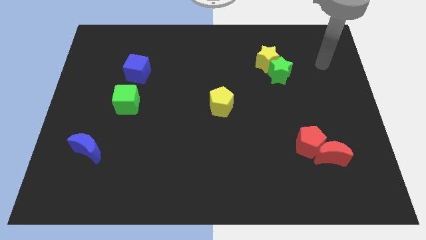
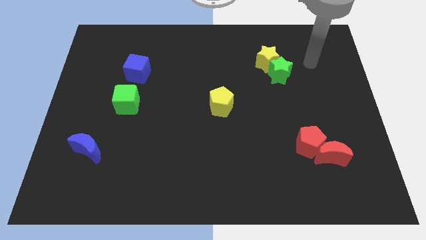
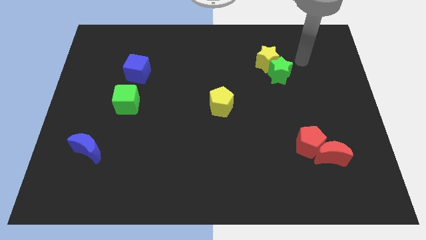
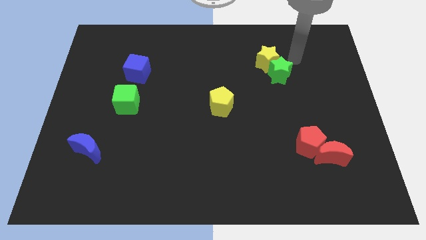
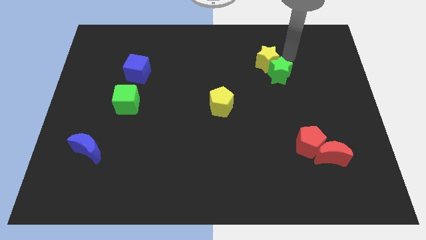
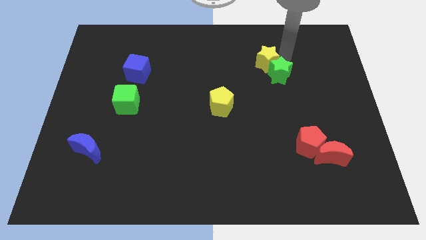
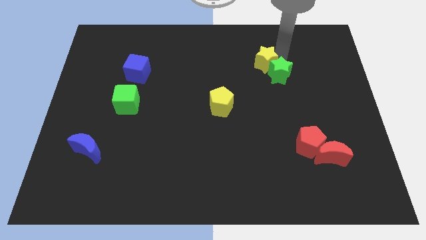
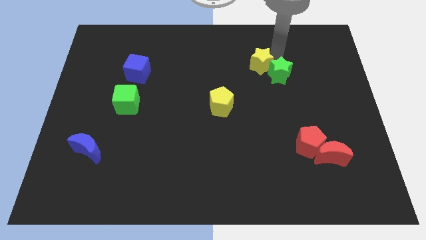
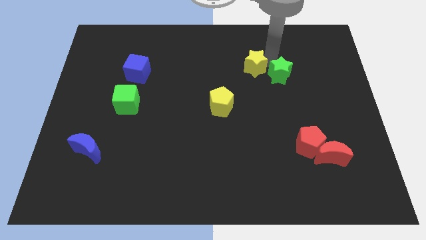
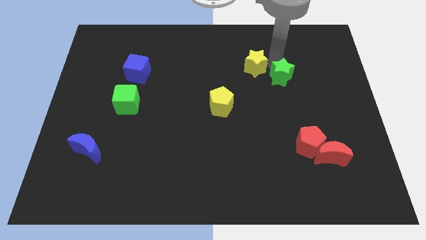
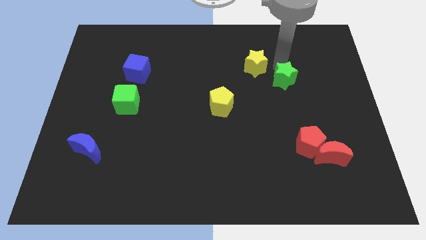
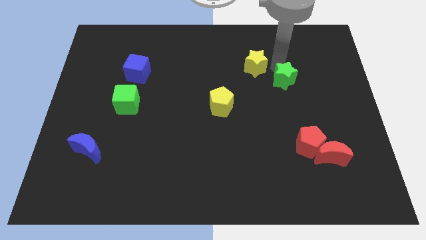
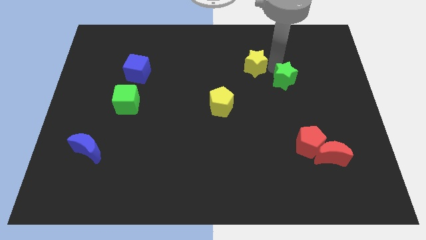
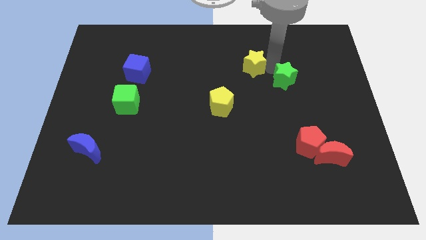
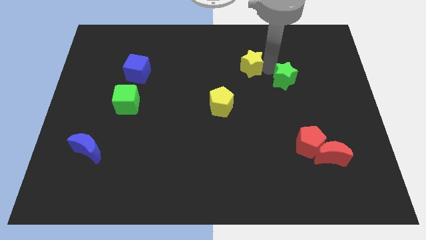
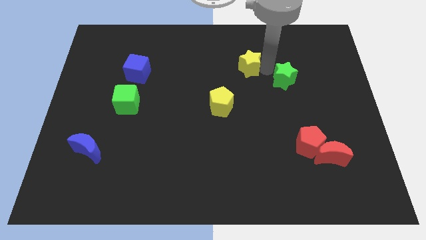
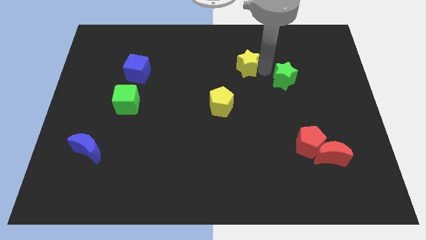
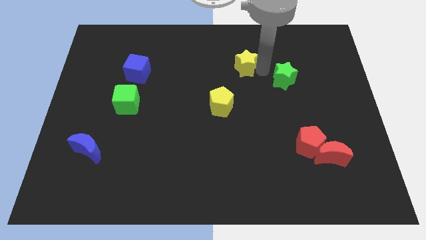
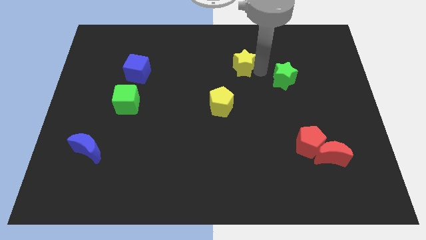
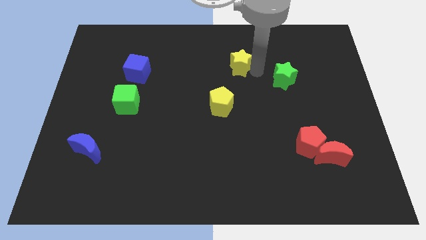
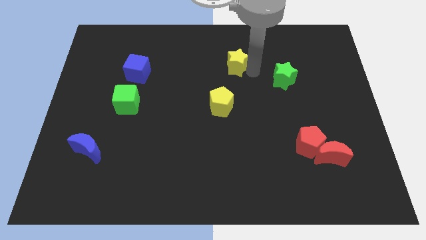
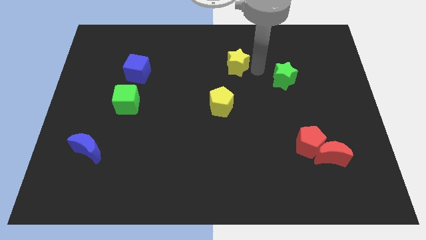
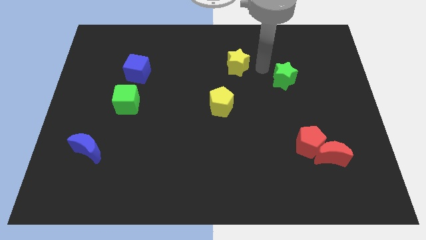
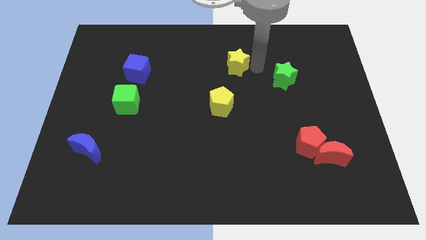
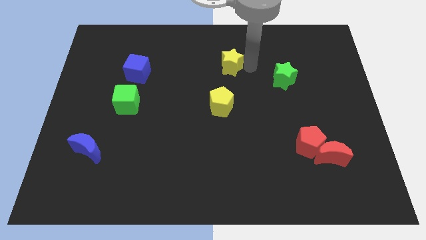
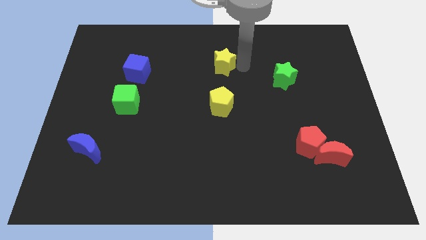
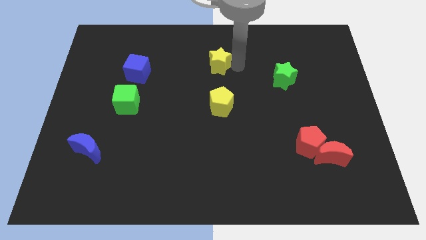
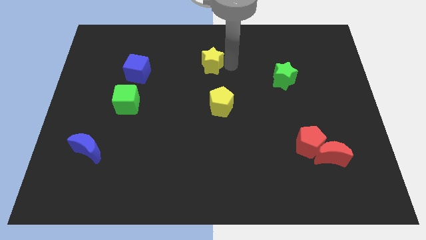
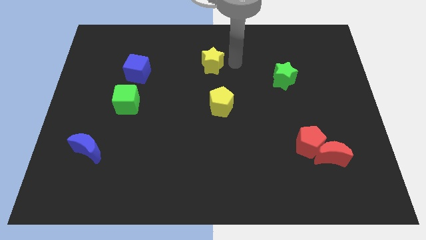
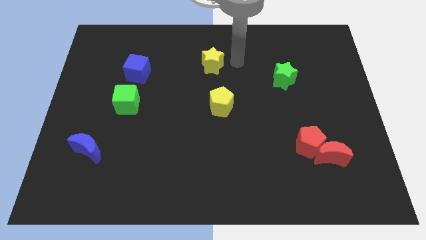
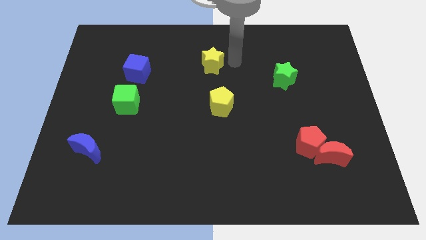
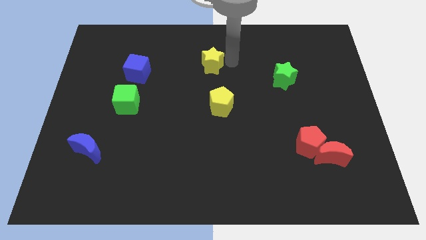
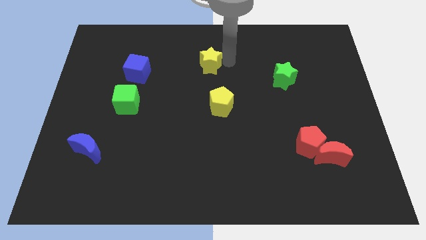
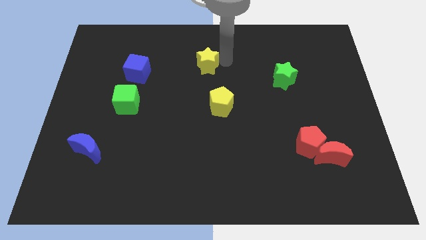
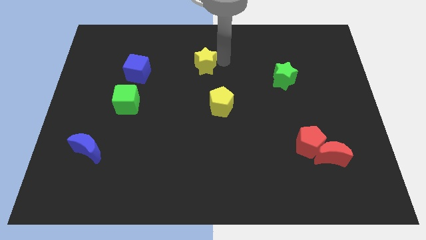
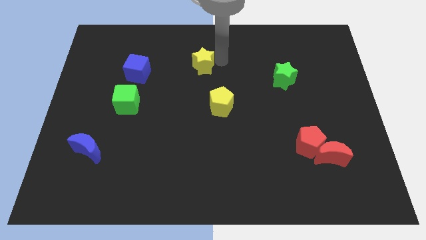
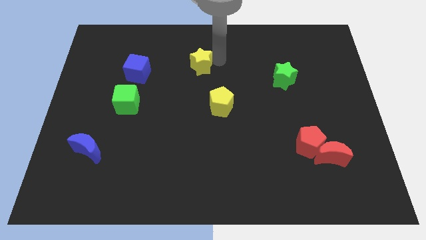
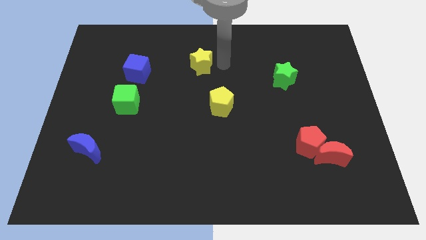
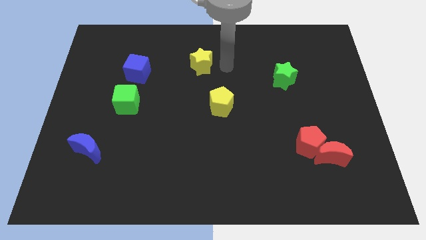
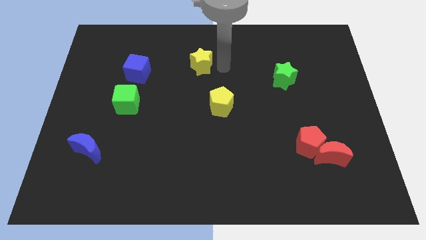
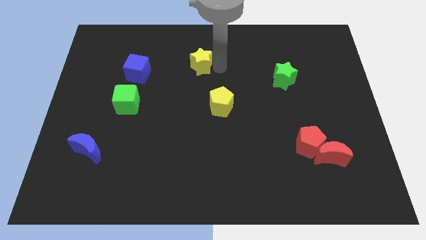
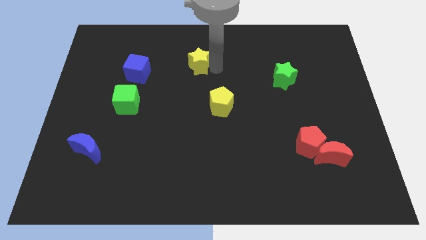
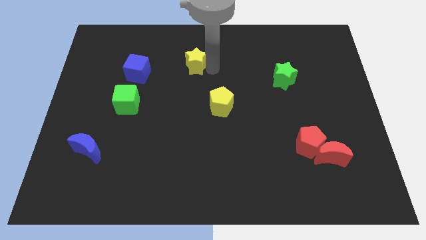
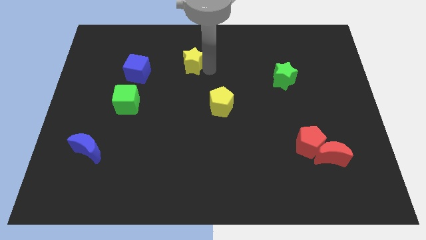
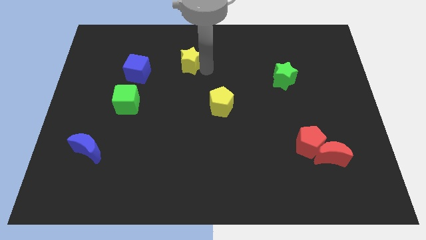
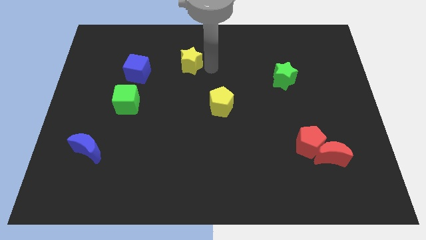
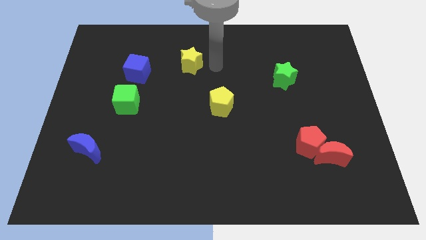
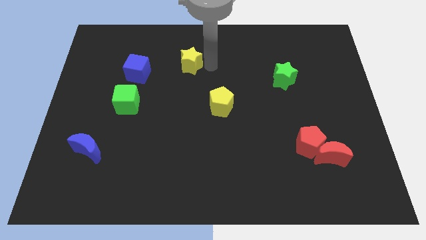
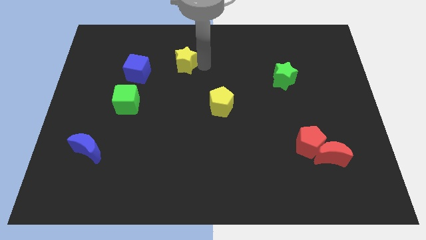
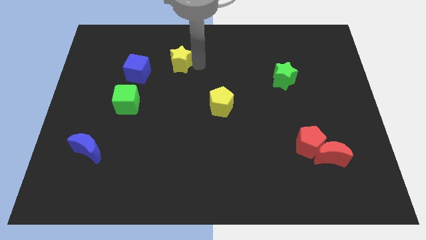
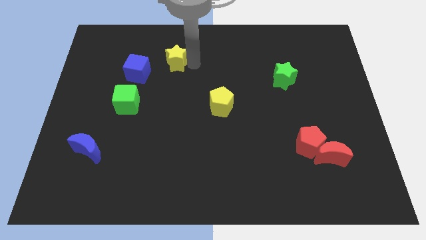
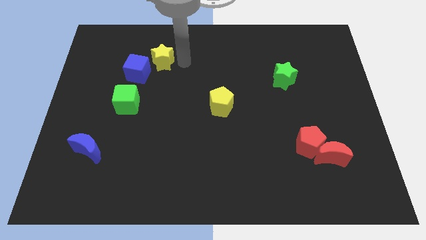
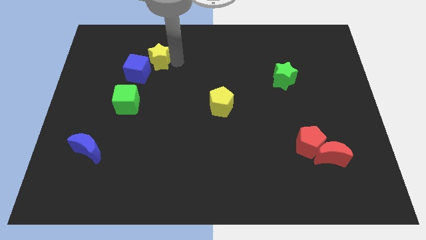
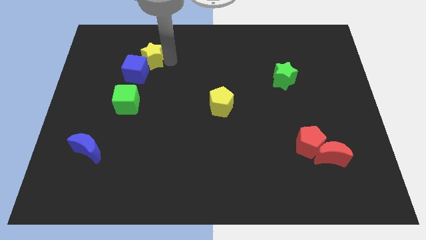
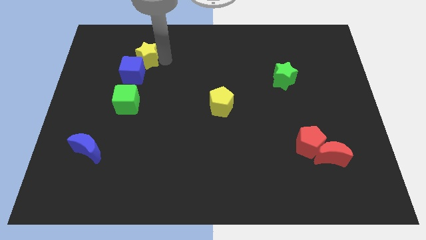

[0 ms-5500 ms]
push the yellow star to the top of the green cube

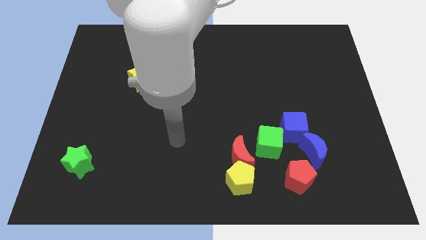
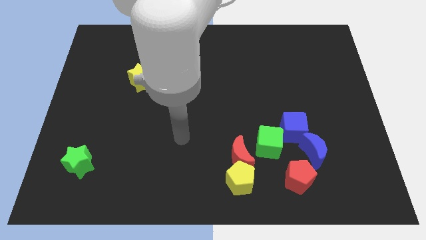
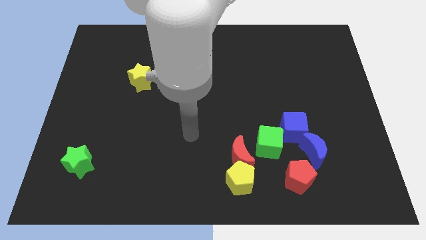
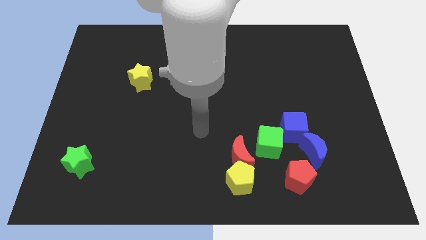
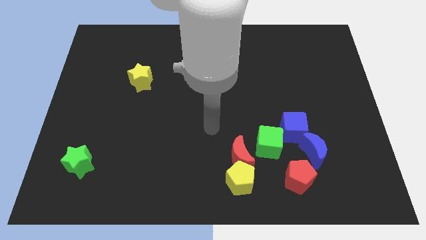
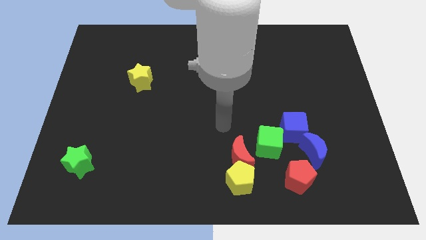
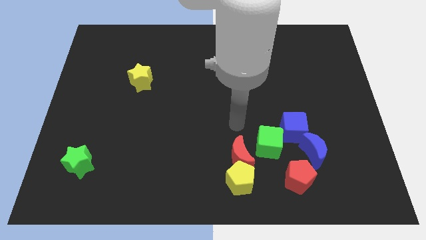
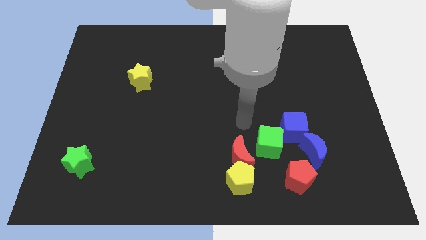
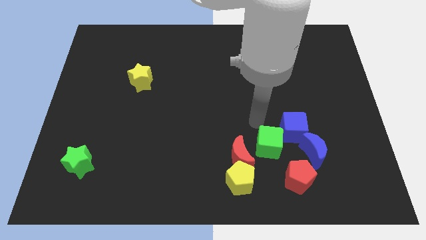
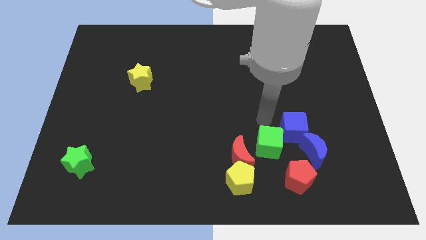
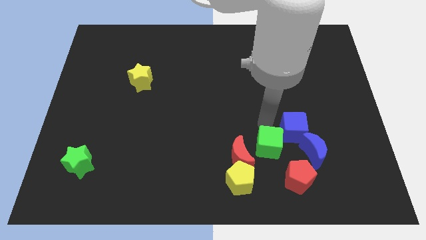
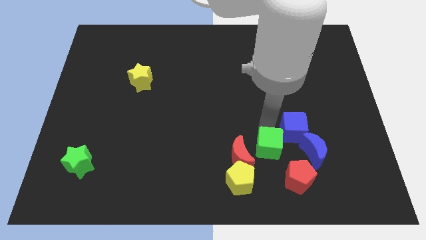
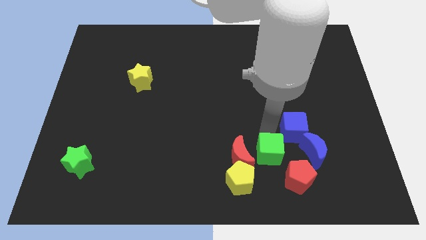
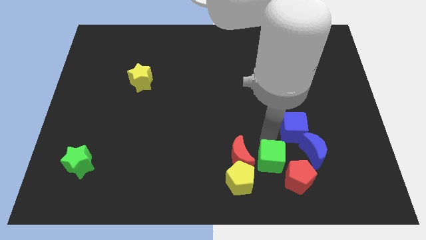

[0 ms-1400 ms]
move the green cube right of the yellow pentagon
